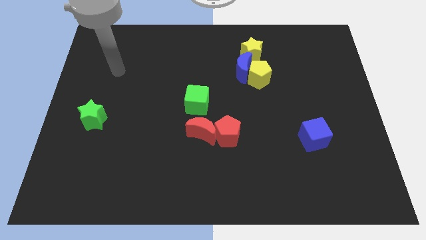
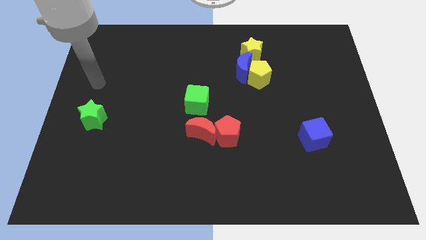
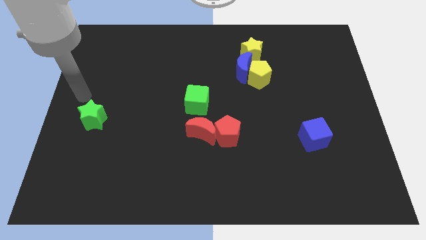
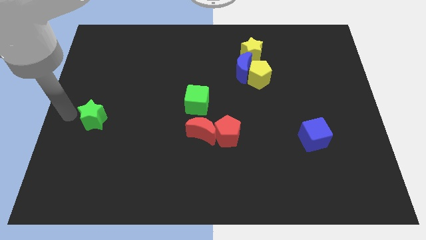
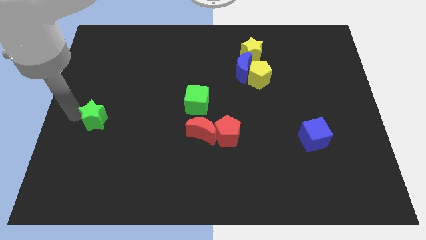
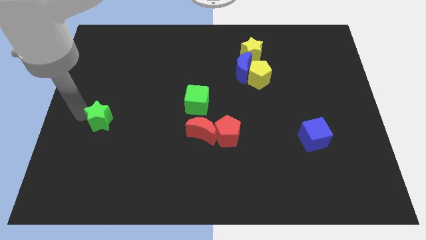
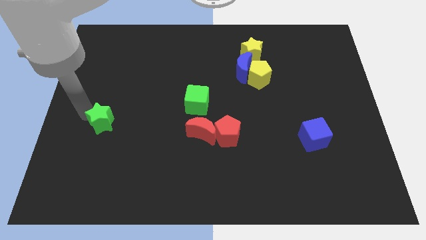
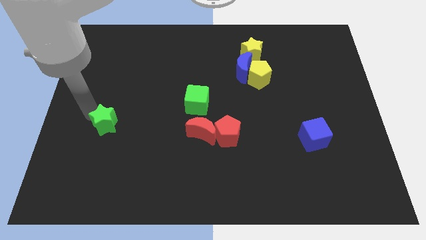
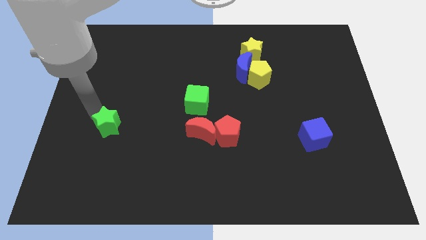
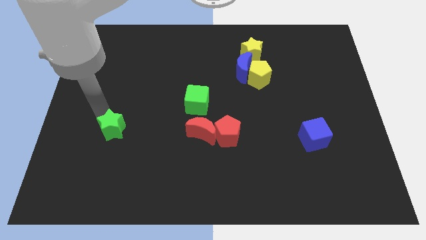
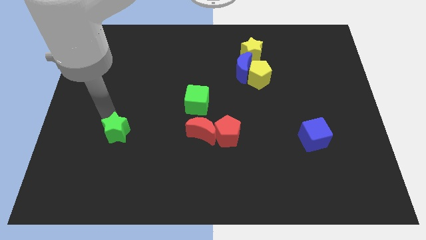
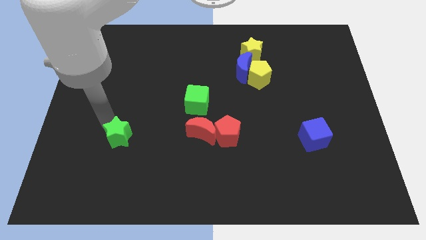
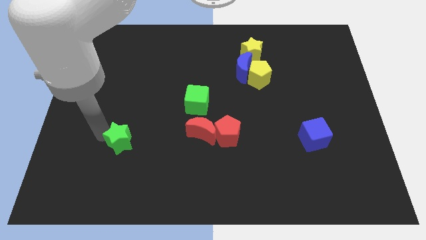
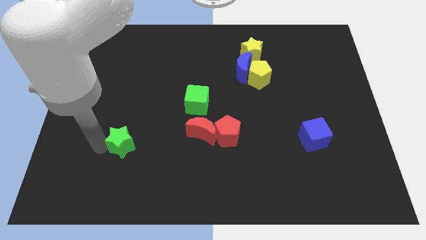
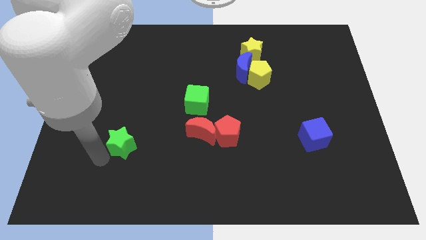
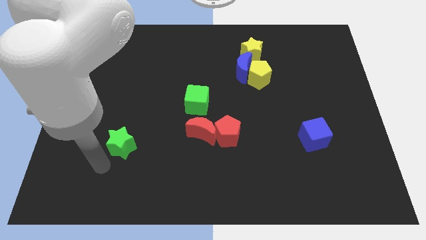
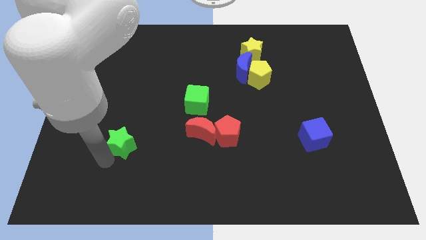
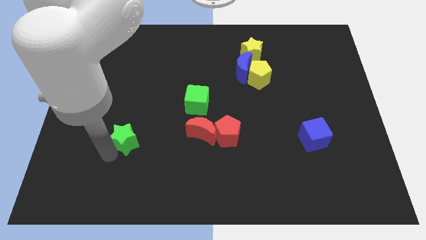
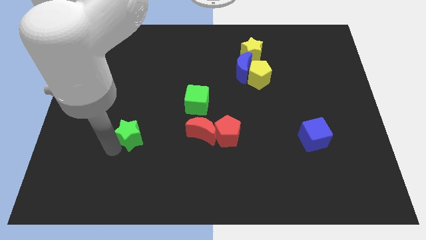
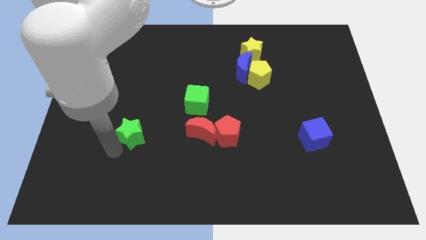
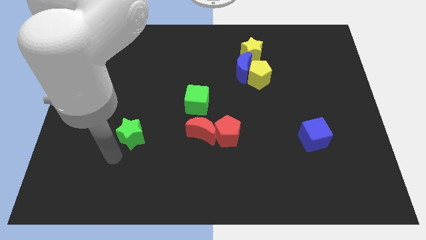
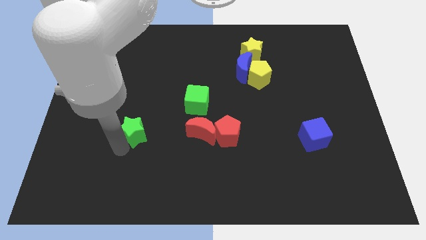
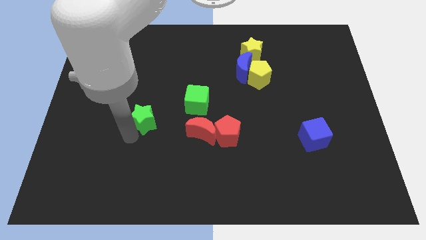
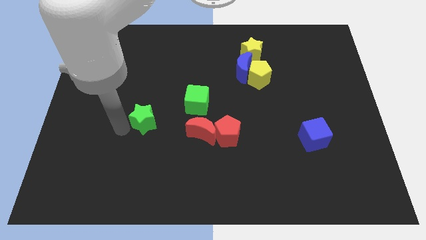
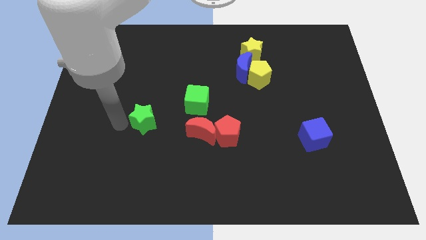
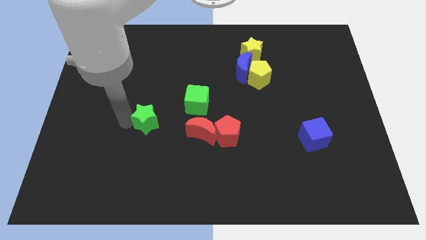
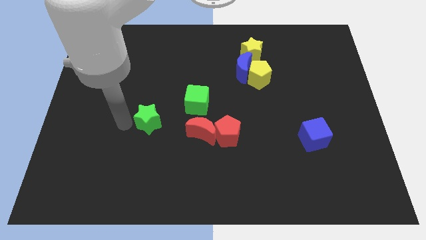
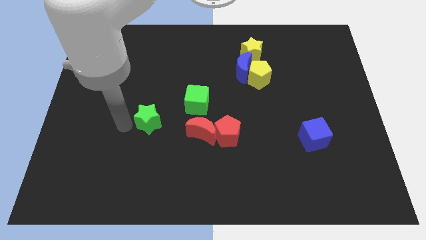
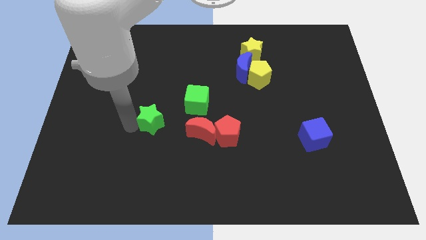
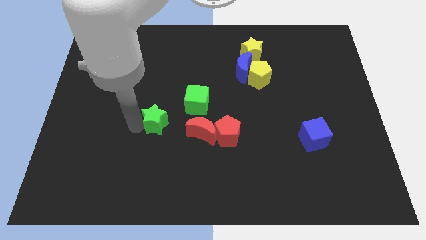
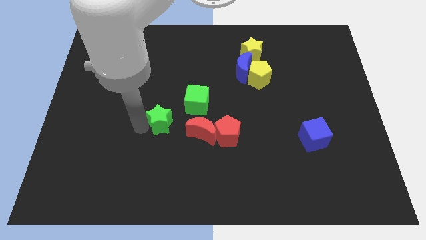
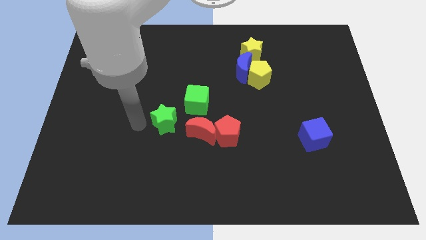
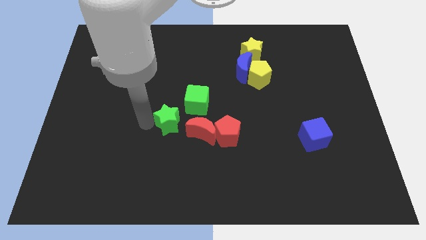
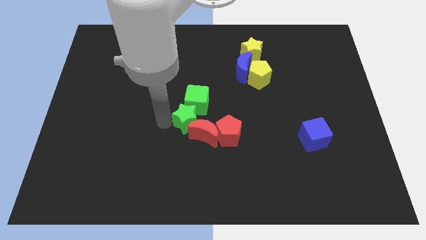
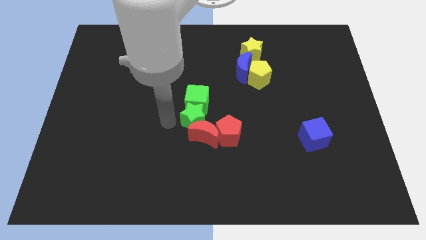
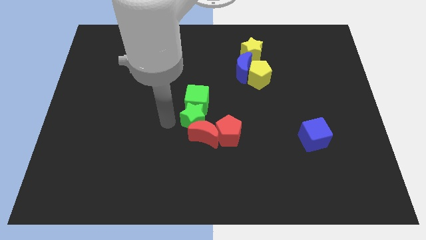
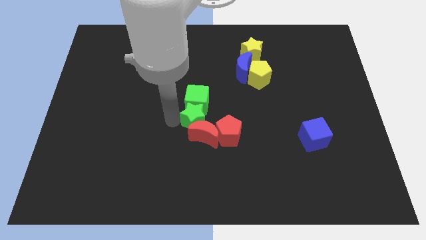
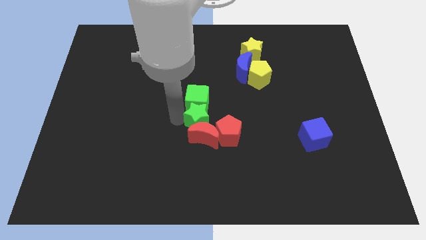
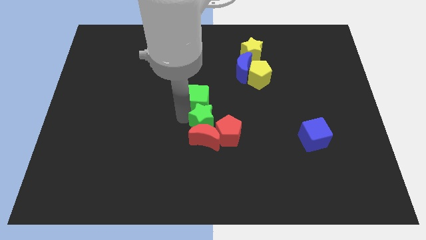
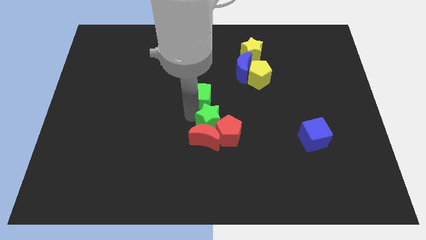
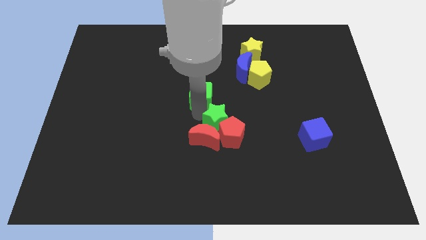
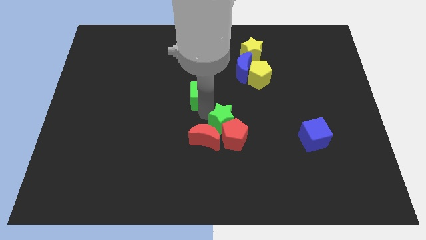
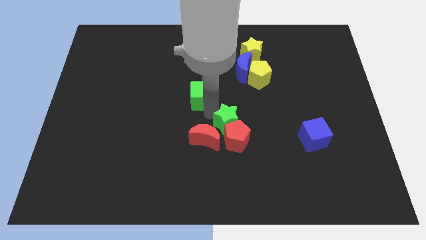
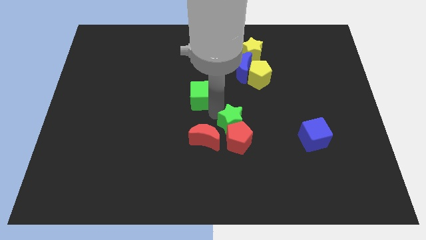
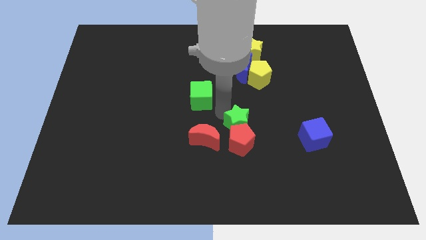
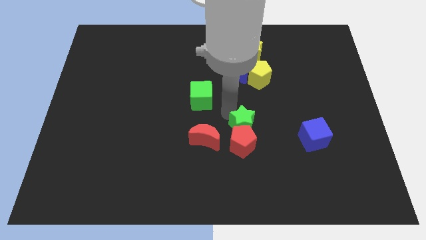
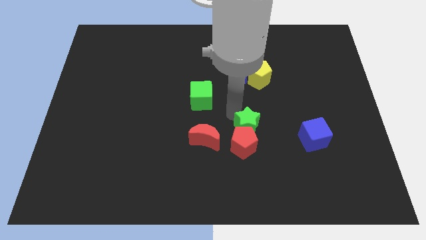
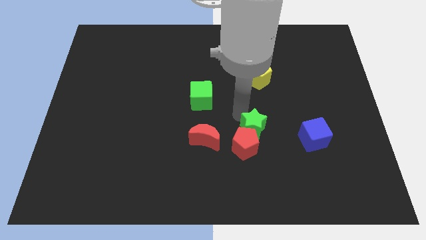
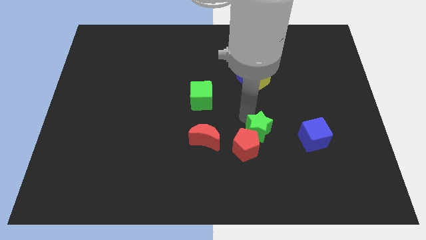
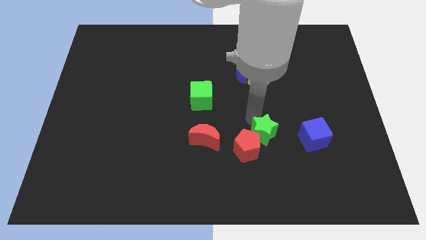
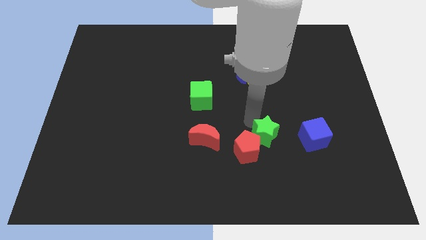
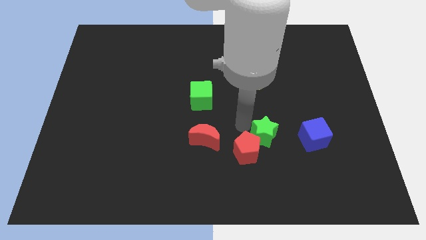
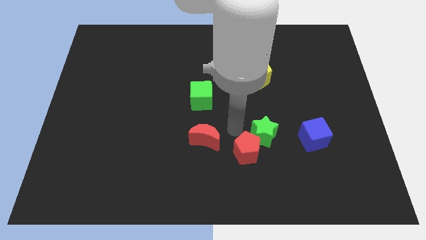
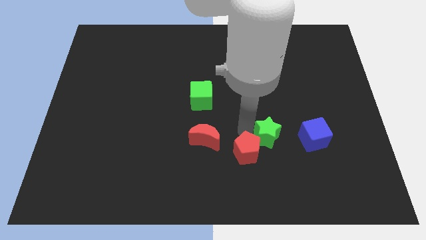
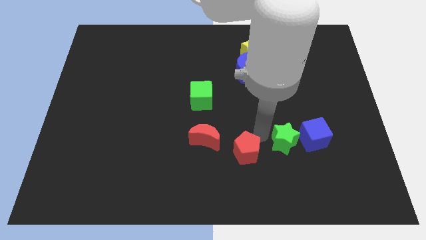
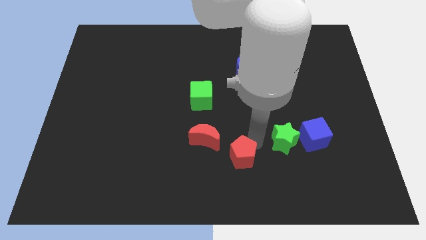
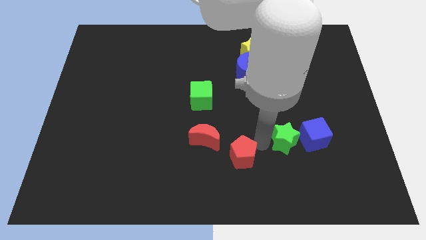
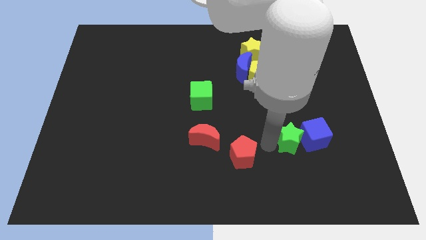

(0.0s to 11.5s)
put the green star next to the blue cube

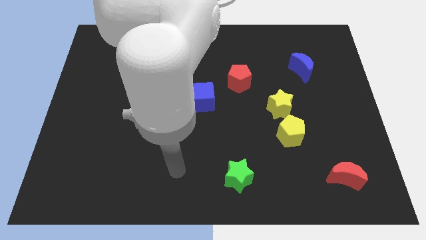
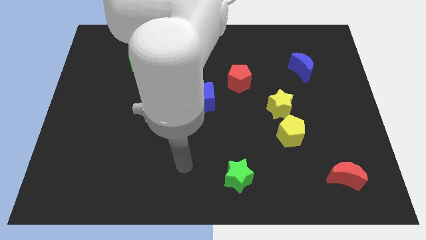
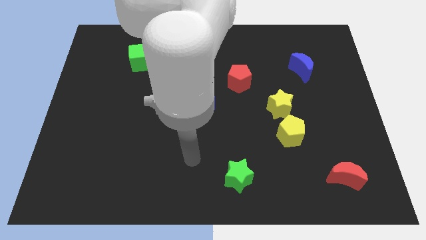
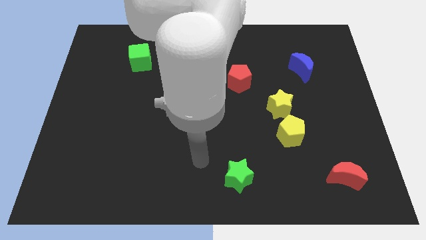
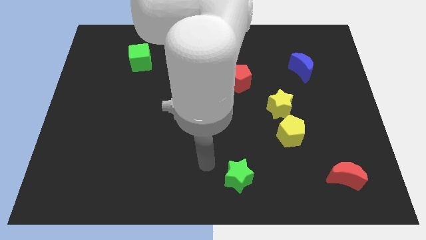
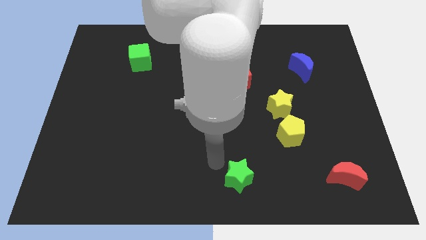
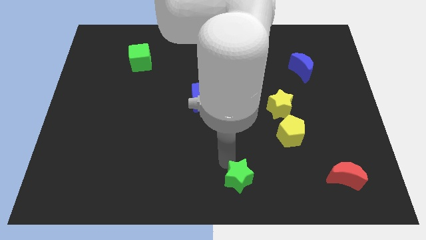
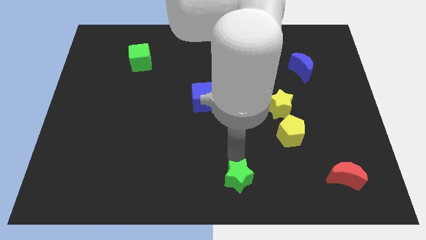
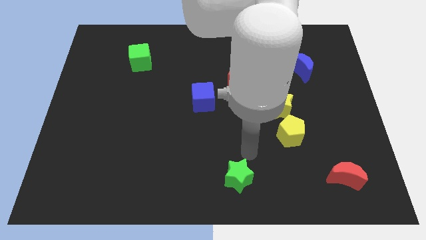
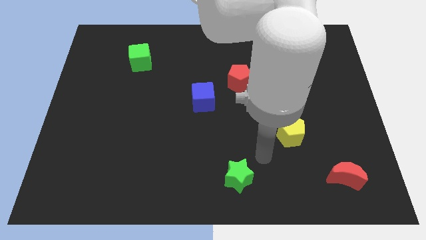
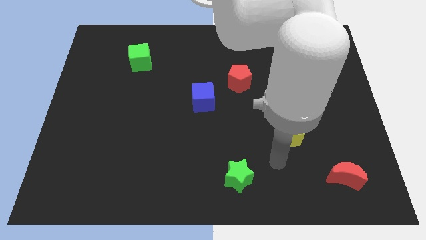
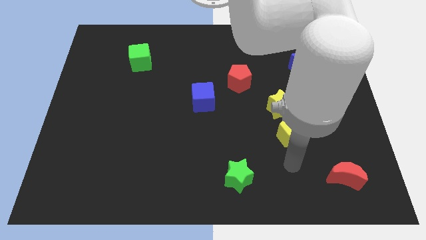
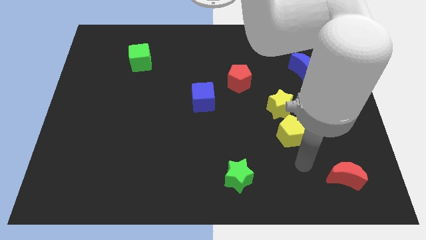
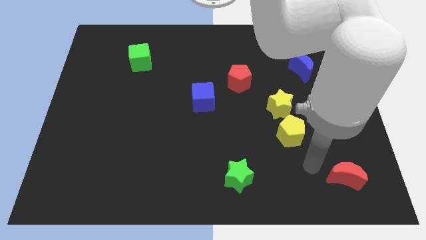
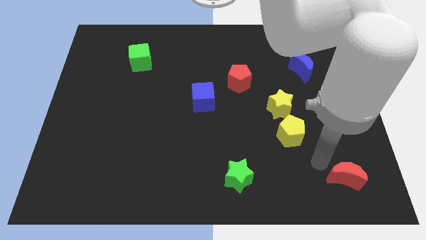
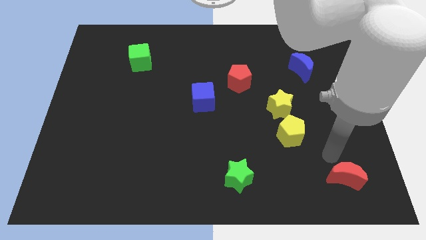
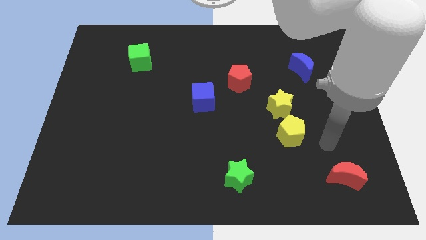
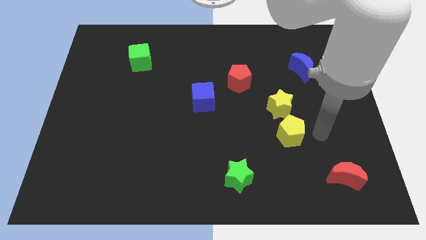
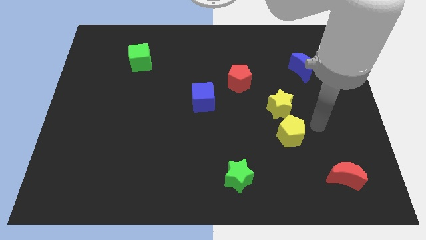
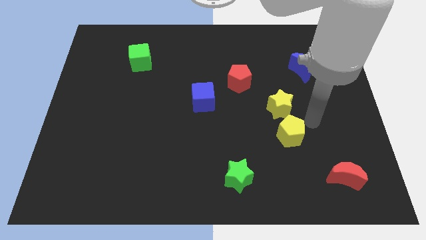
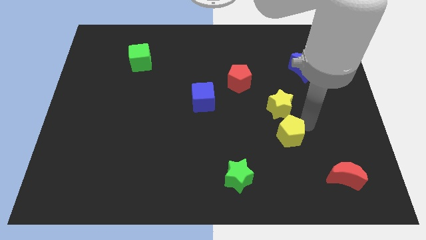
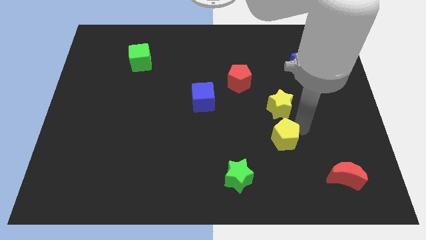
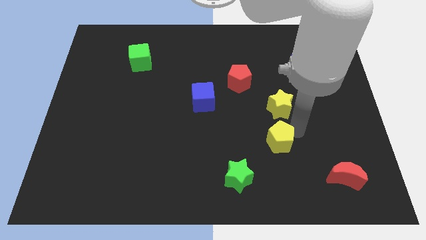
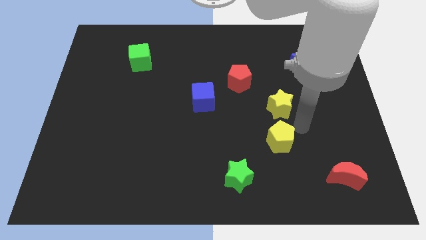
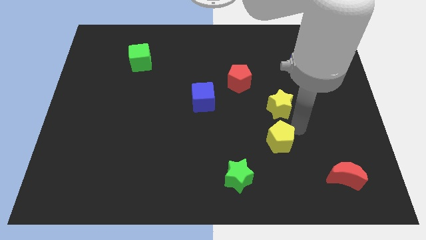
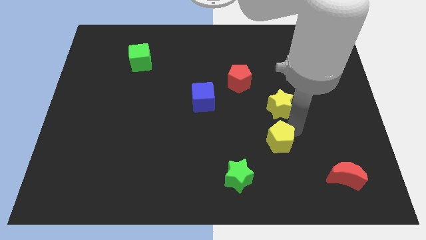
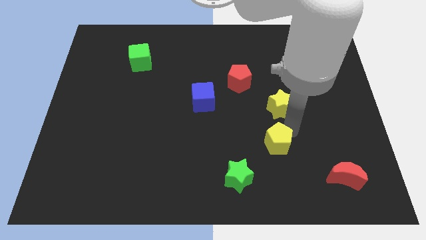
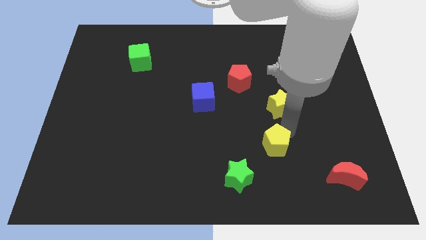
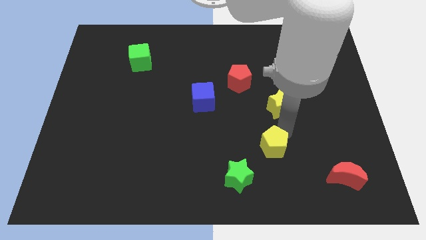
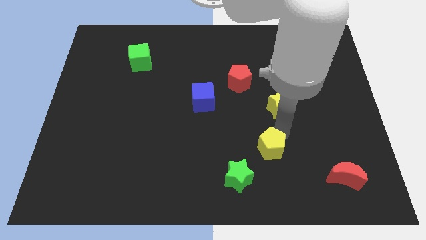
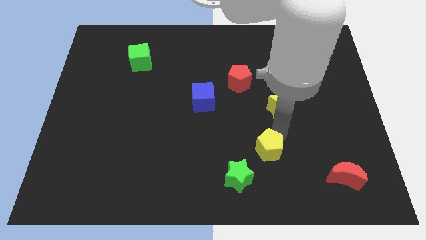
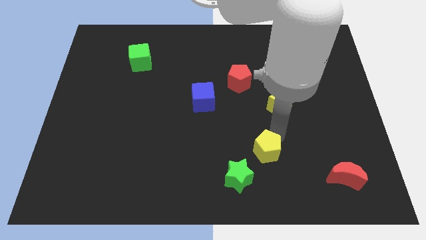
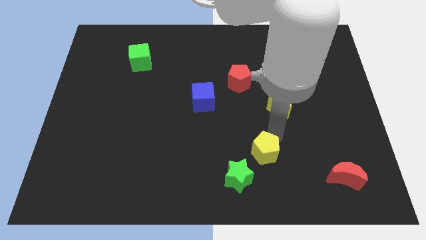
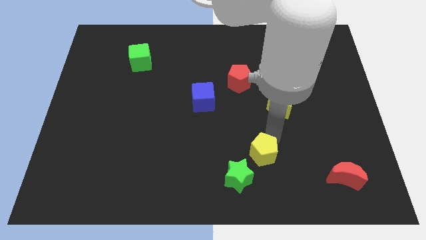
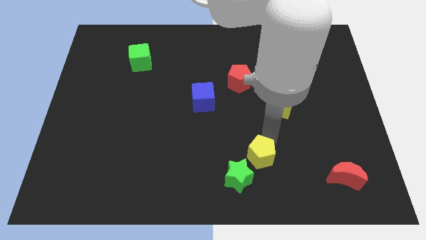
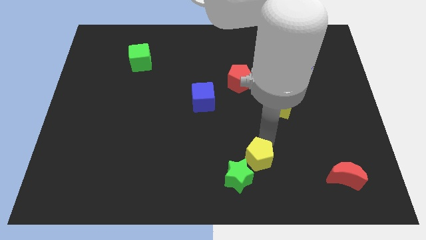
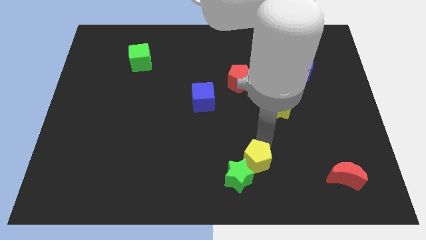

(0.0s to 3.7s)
move the yellow pentagon close to the green star
